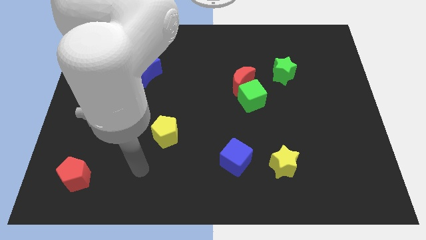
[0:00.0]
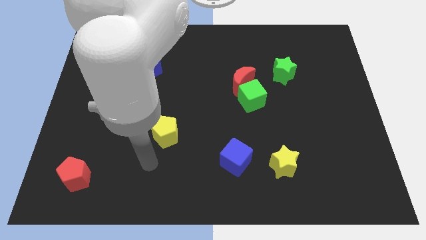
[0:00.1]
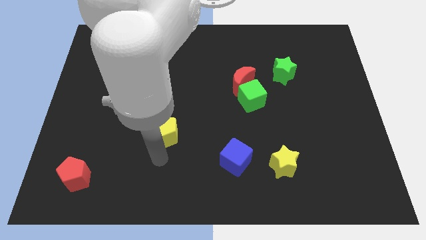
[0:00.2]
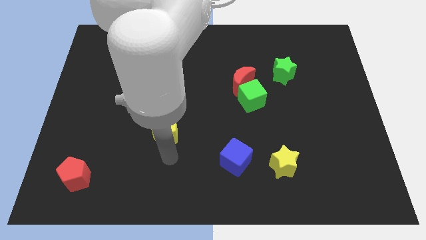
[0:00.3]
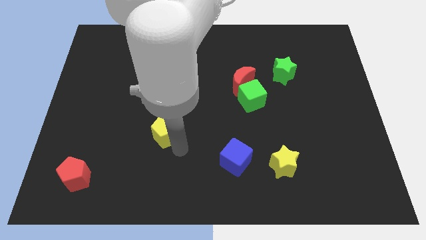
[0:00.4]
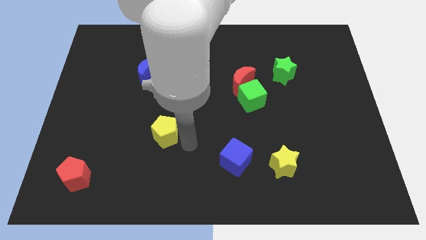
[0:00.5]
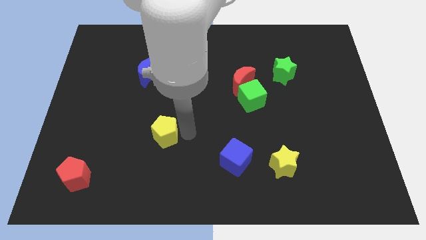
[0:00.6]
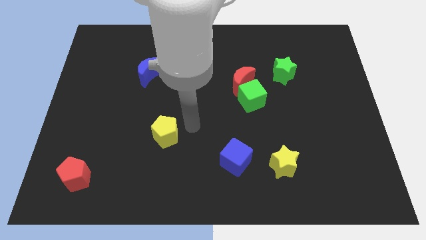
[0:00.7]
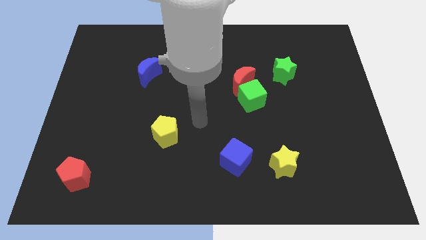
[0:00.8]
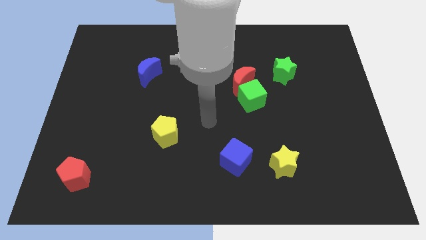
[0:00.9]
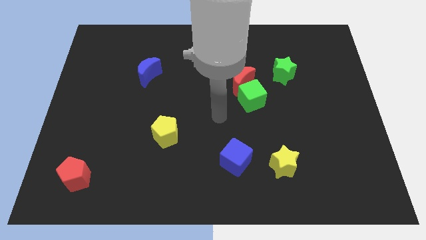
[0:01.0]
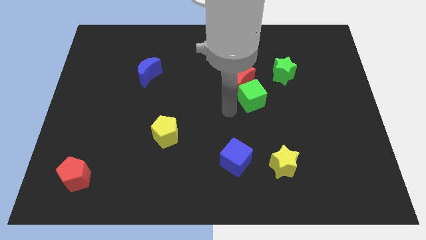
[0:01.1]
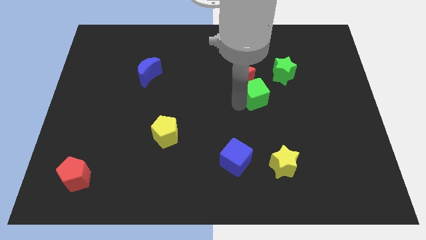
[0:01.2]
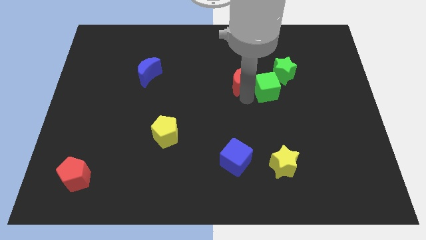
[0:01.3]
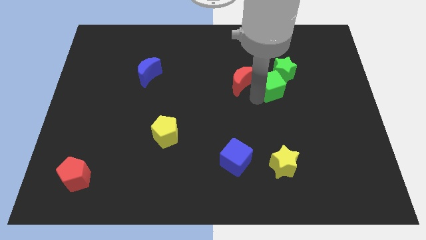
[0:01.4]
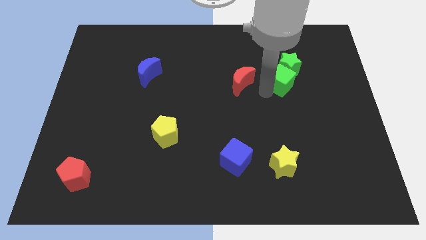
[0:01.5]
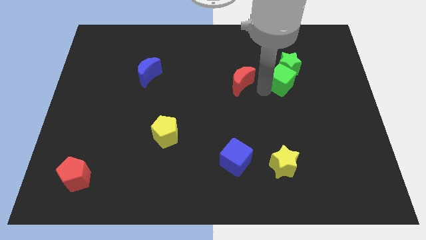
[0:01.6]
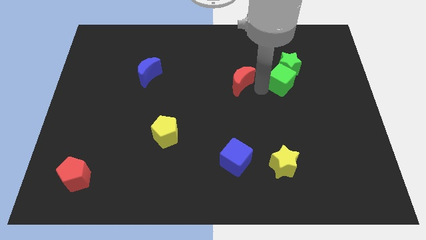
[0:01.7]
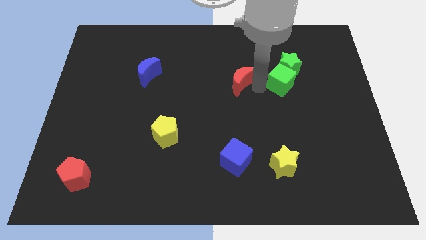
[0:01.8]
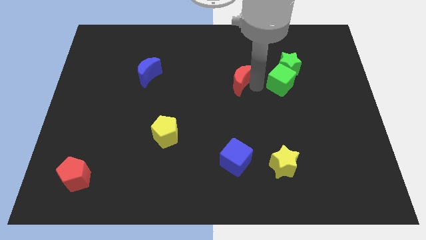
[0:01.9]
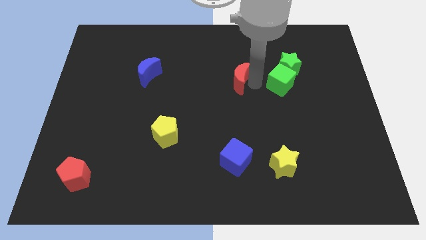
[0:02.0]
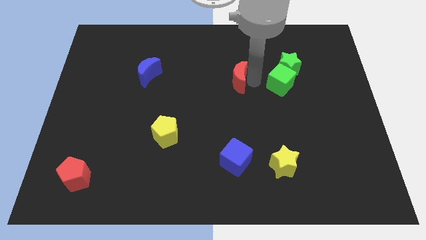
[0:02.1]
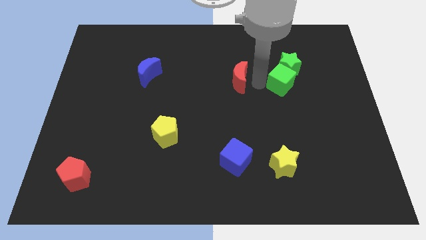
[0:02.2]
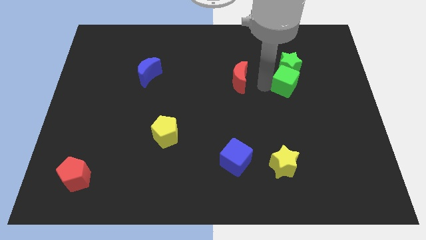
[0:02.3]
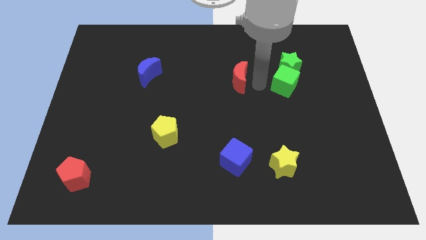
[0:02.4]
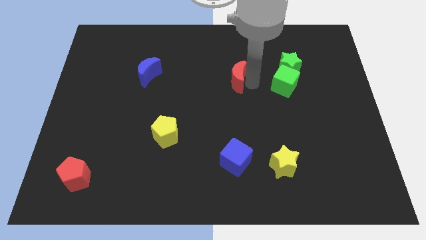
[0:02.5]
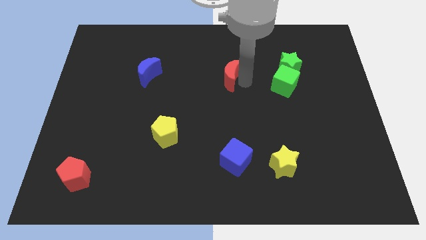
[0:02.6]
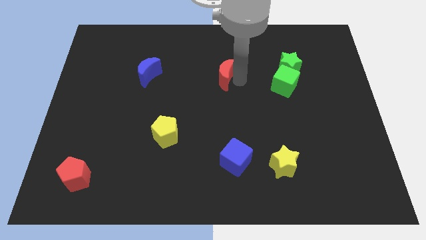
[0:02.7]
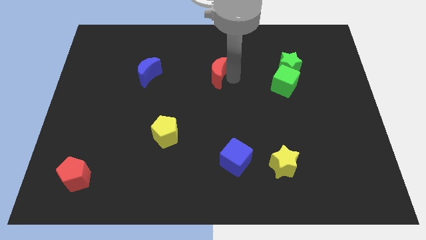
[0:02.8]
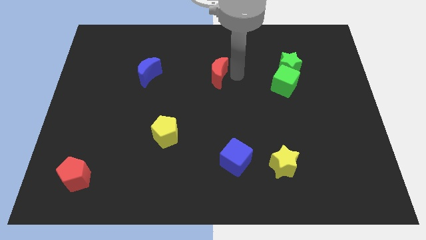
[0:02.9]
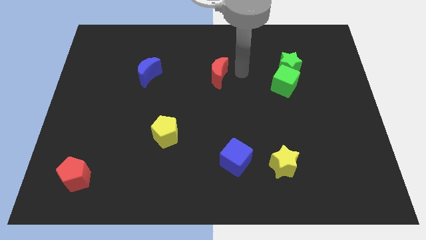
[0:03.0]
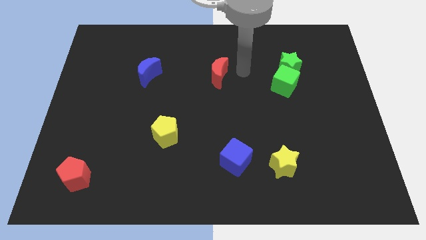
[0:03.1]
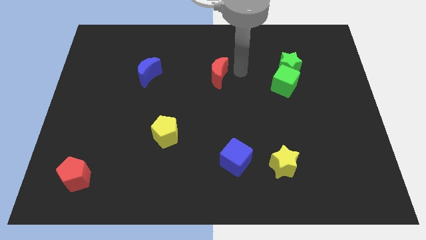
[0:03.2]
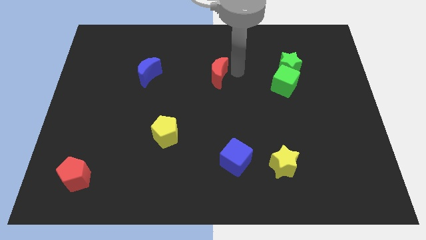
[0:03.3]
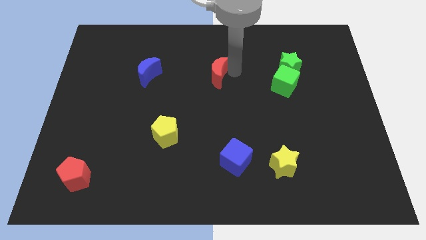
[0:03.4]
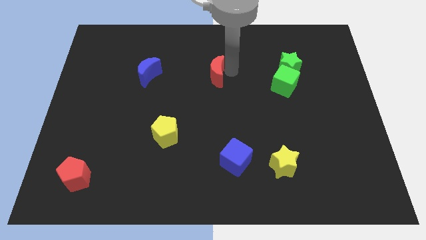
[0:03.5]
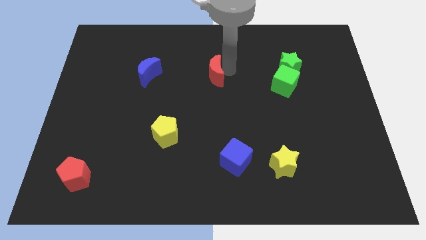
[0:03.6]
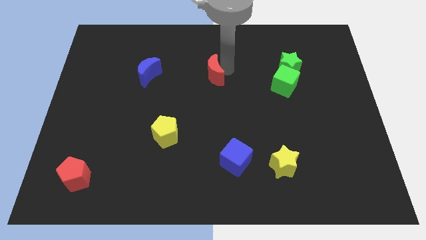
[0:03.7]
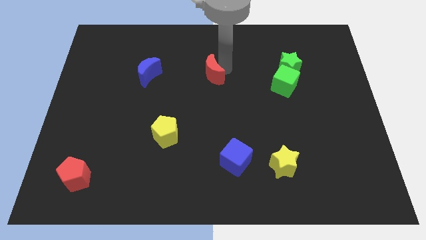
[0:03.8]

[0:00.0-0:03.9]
slightly slide the red moon left

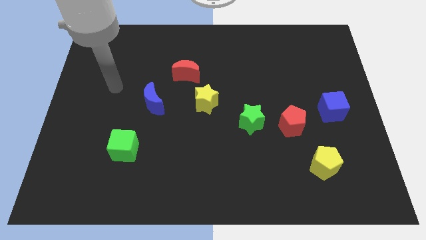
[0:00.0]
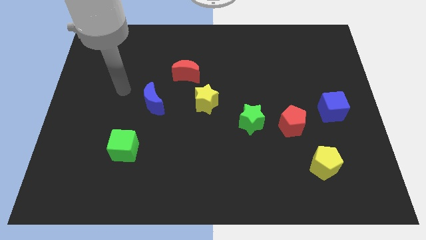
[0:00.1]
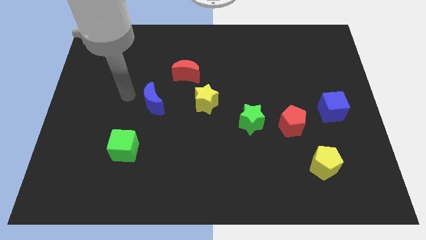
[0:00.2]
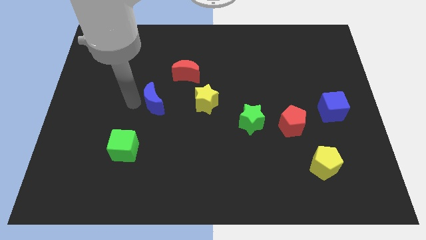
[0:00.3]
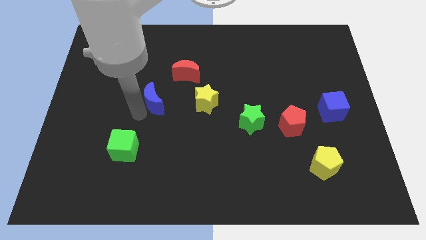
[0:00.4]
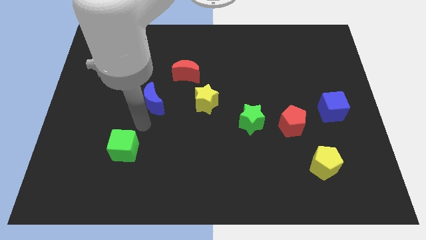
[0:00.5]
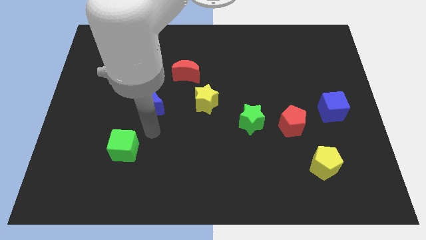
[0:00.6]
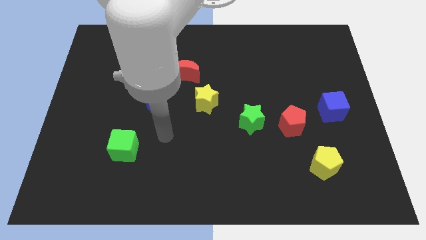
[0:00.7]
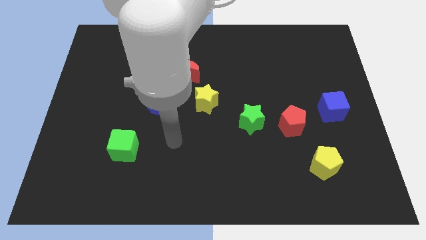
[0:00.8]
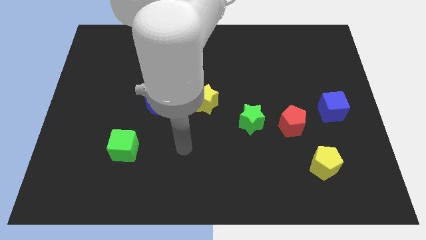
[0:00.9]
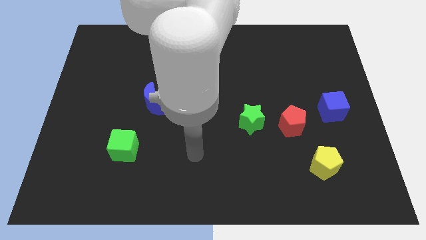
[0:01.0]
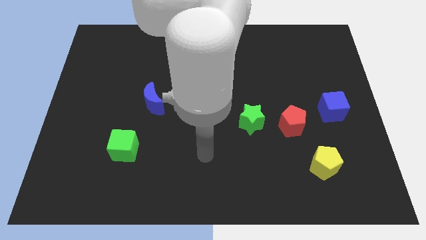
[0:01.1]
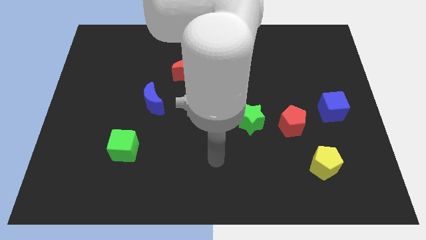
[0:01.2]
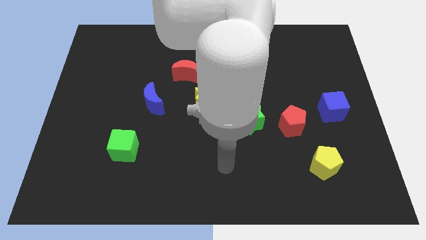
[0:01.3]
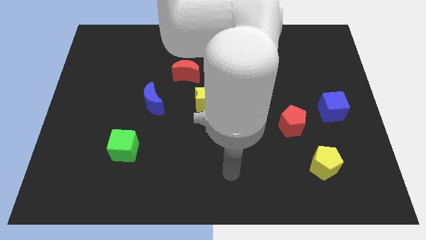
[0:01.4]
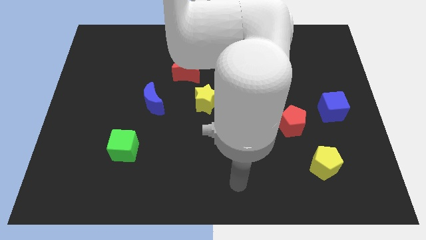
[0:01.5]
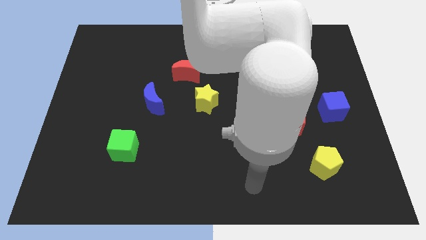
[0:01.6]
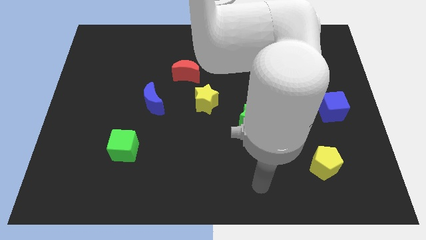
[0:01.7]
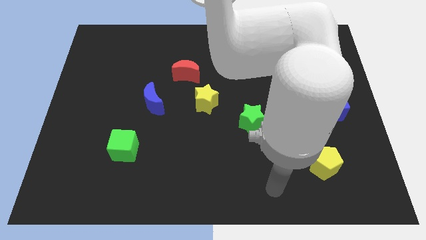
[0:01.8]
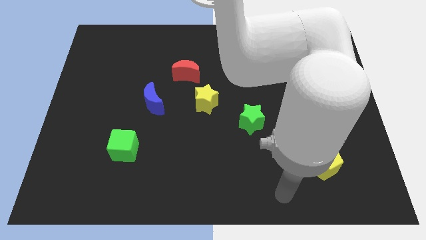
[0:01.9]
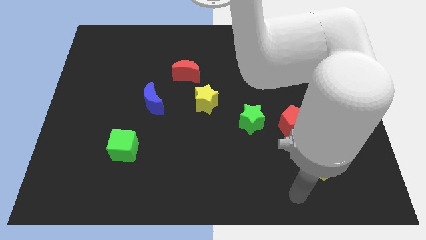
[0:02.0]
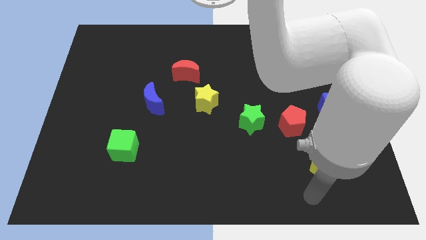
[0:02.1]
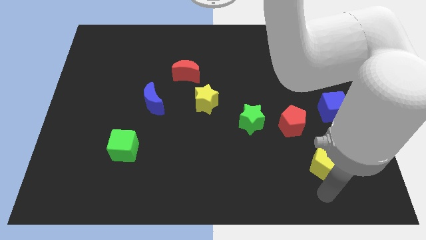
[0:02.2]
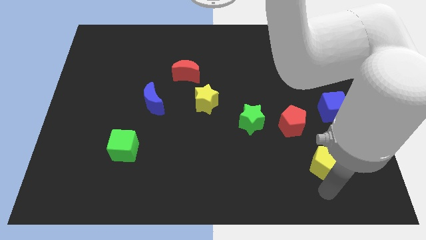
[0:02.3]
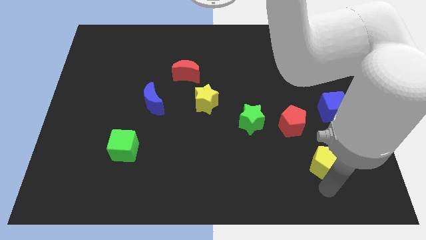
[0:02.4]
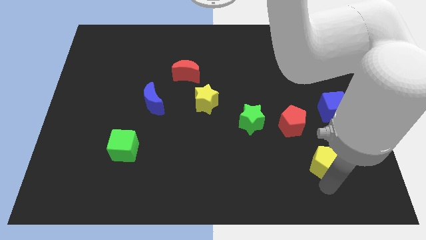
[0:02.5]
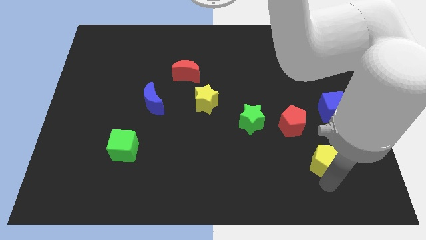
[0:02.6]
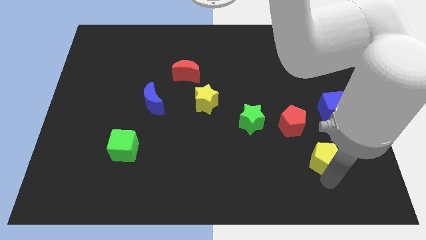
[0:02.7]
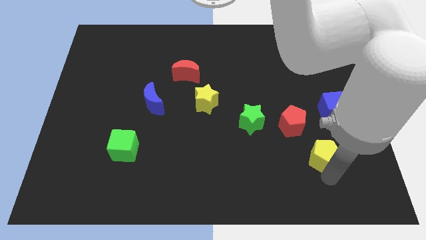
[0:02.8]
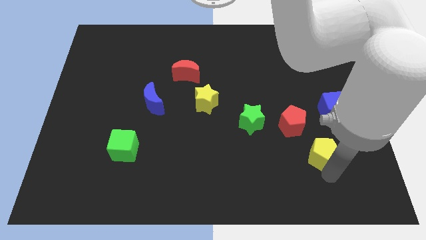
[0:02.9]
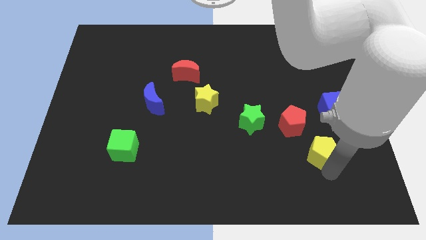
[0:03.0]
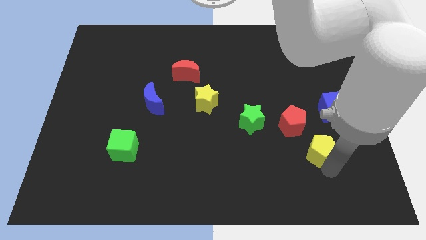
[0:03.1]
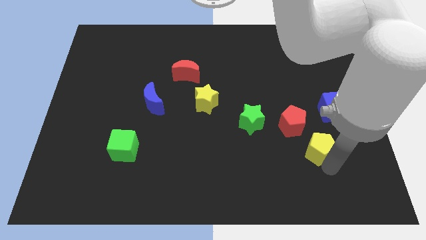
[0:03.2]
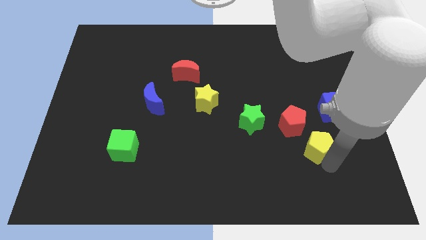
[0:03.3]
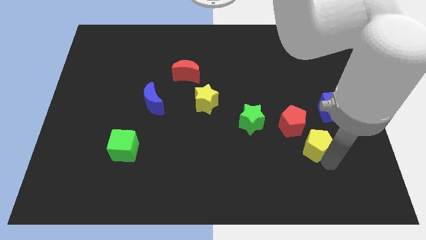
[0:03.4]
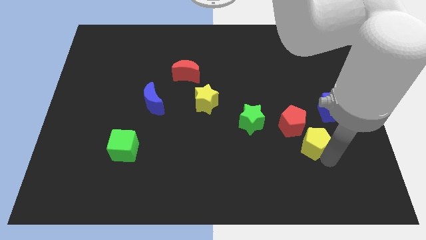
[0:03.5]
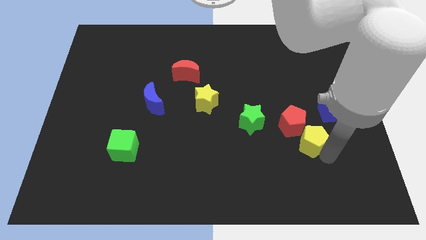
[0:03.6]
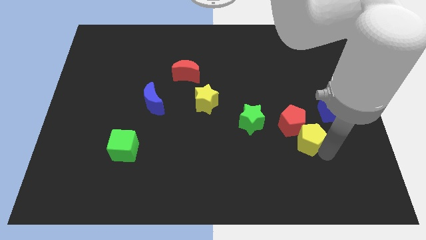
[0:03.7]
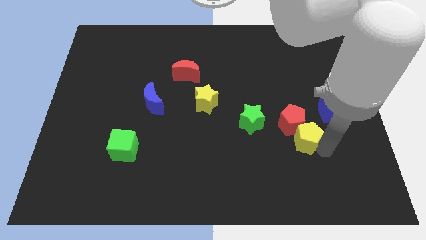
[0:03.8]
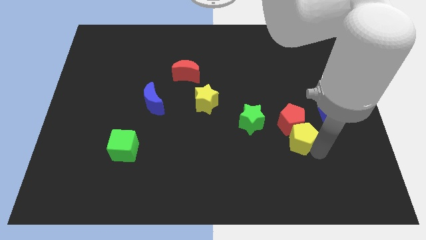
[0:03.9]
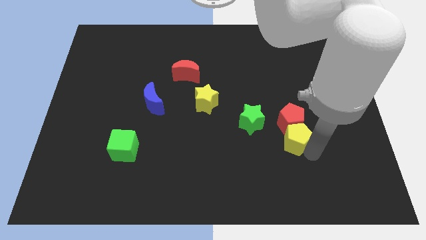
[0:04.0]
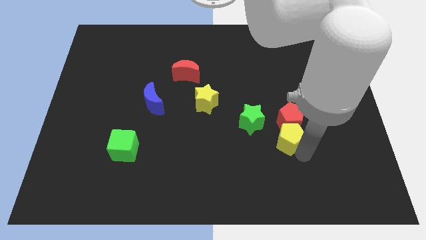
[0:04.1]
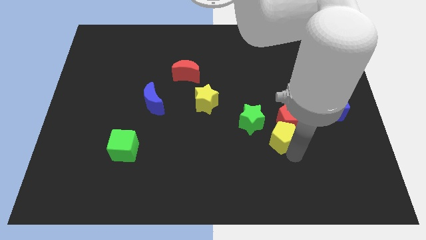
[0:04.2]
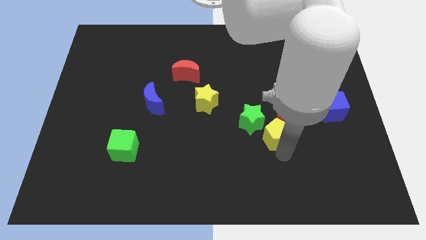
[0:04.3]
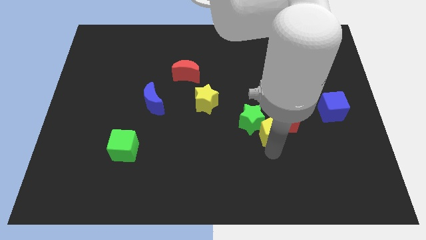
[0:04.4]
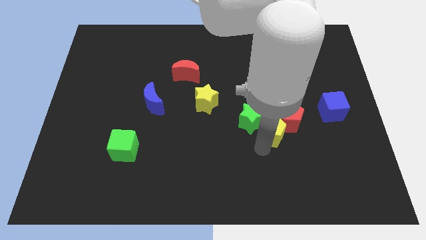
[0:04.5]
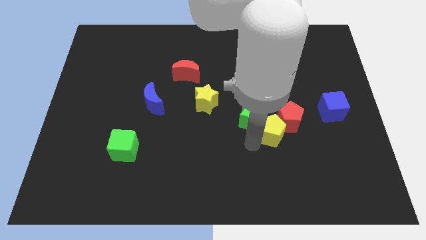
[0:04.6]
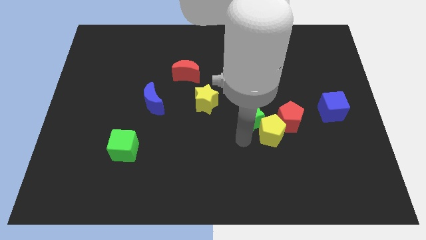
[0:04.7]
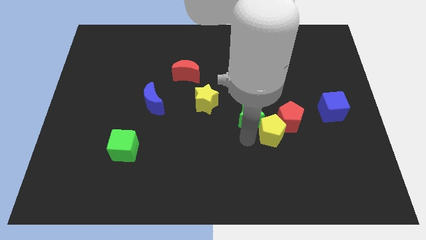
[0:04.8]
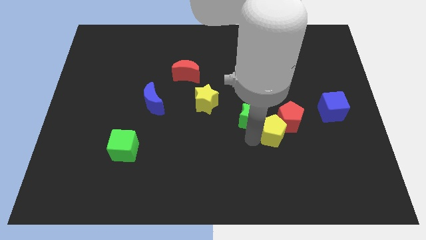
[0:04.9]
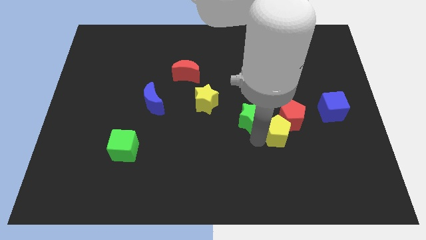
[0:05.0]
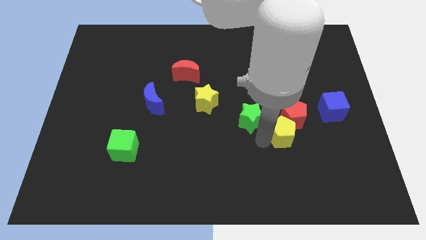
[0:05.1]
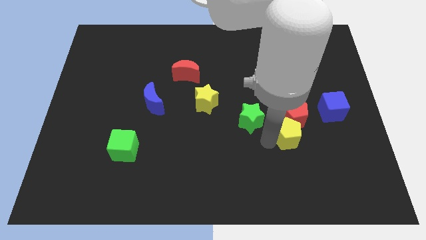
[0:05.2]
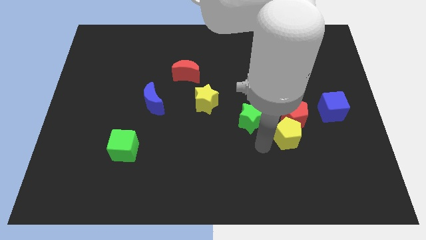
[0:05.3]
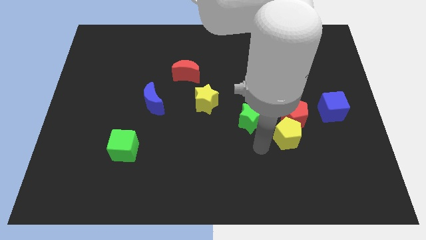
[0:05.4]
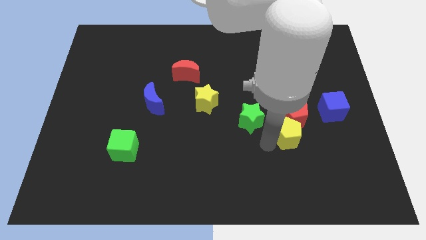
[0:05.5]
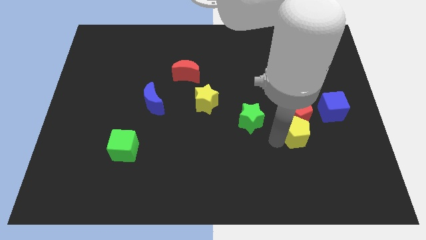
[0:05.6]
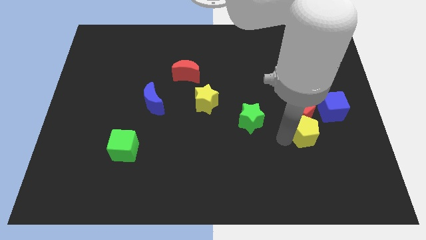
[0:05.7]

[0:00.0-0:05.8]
push the yellow pentagon a little upwards
